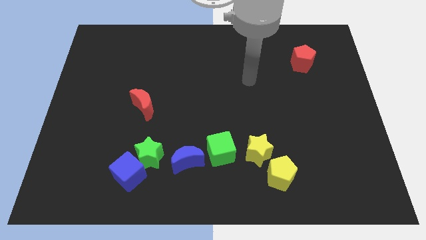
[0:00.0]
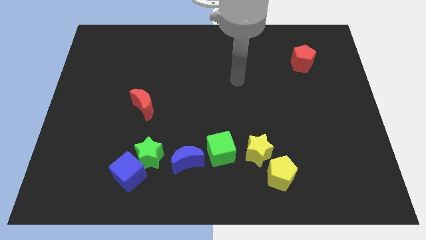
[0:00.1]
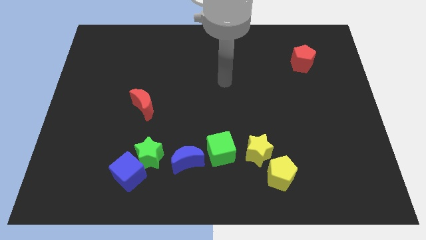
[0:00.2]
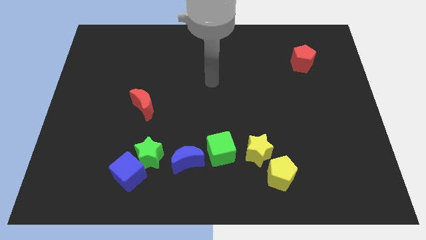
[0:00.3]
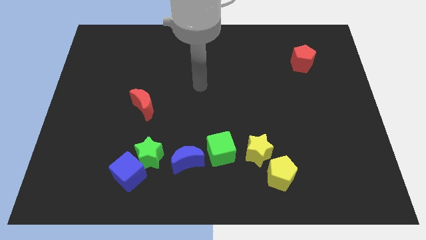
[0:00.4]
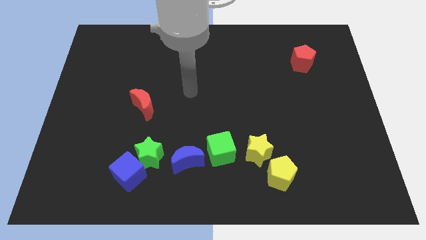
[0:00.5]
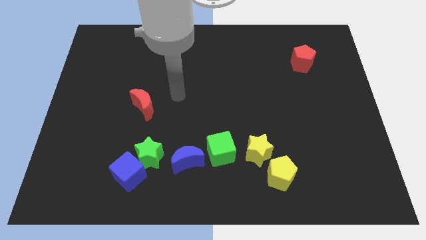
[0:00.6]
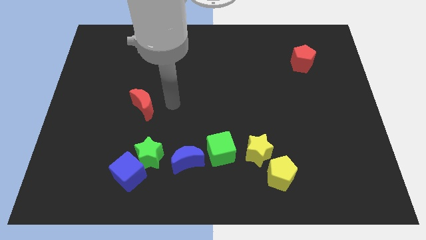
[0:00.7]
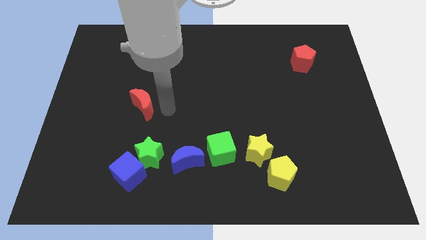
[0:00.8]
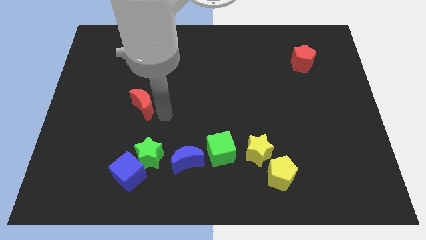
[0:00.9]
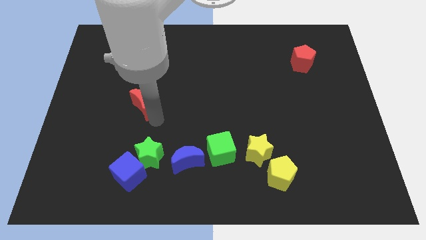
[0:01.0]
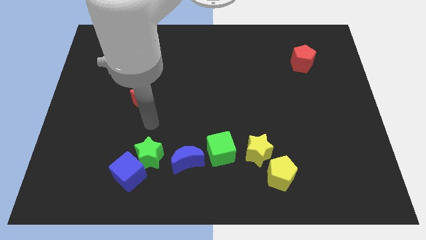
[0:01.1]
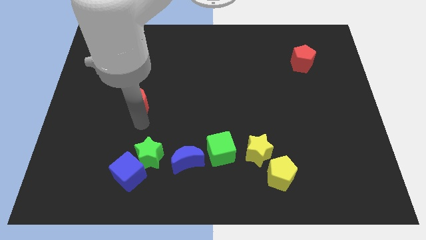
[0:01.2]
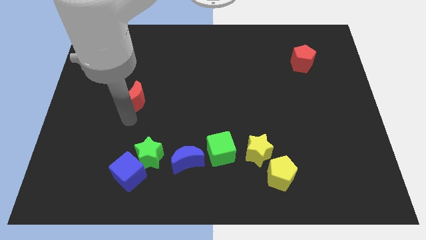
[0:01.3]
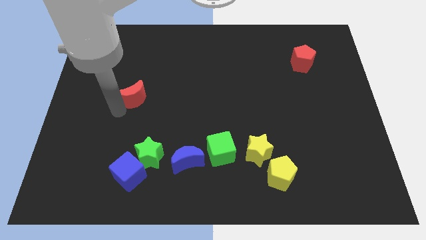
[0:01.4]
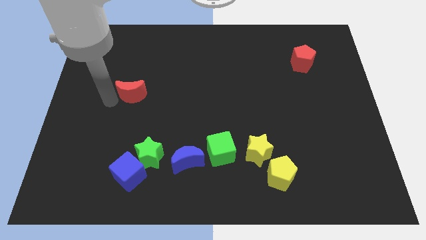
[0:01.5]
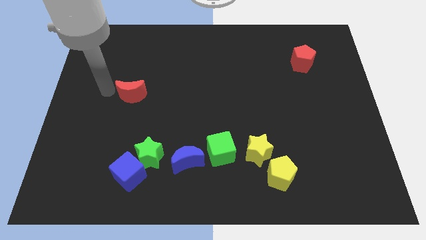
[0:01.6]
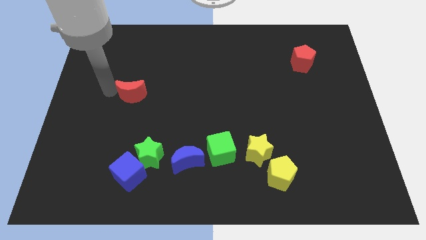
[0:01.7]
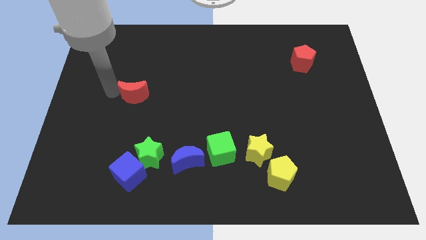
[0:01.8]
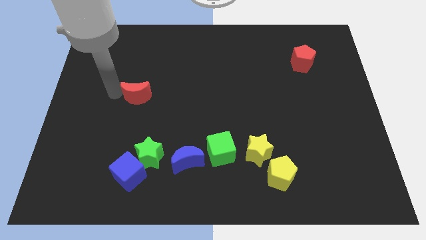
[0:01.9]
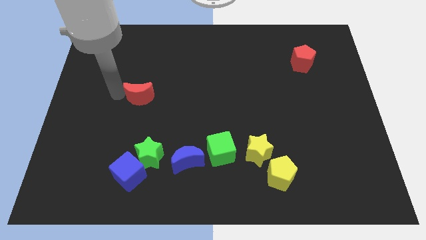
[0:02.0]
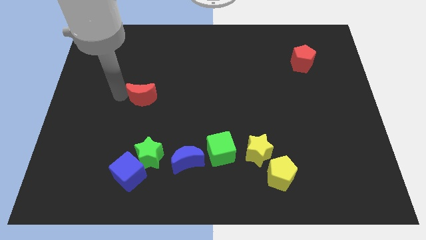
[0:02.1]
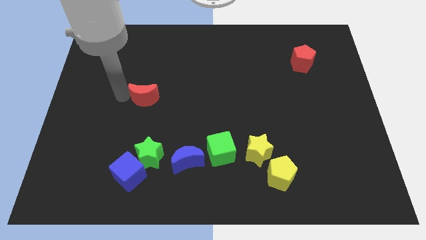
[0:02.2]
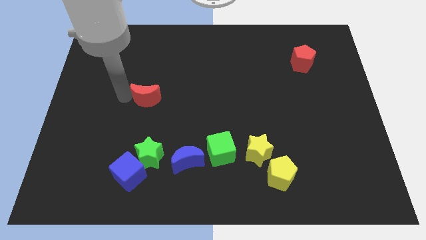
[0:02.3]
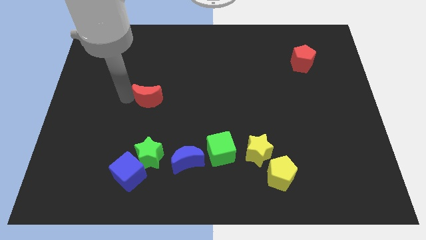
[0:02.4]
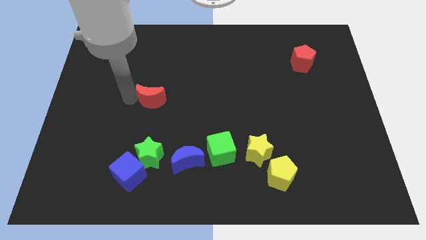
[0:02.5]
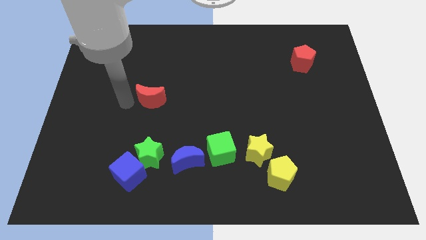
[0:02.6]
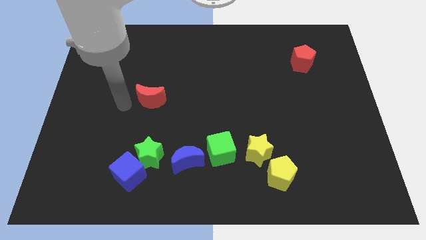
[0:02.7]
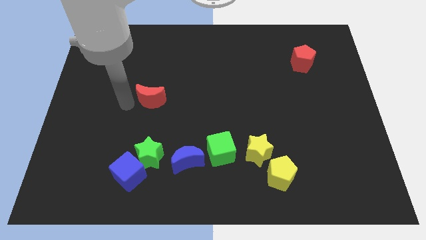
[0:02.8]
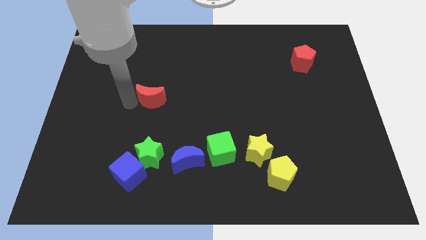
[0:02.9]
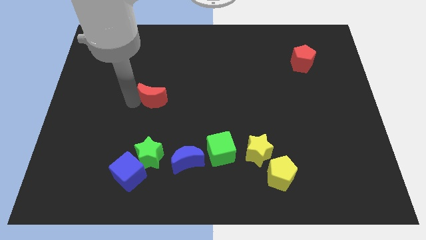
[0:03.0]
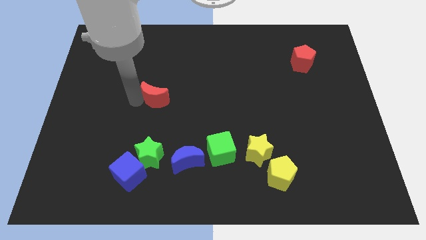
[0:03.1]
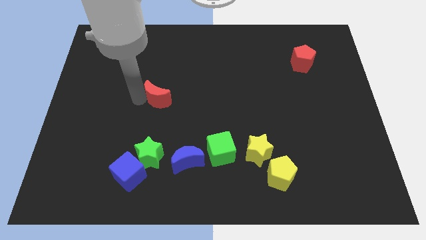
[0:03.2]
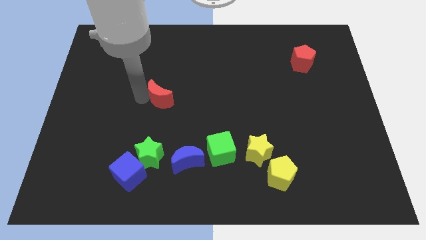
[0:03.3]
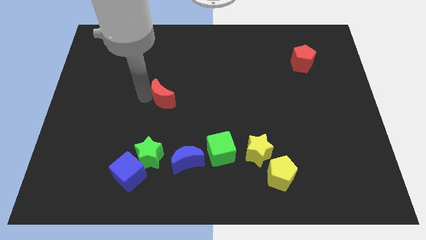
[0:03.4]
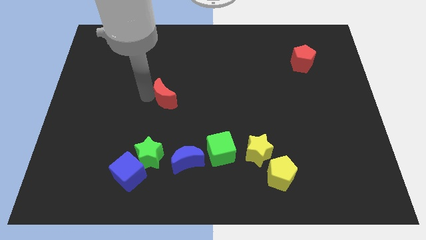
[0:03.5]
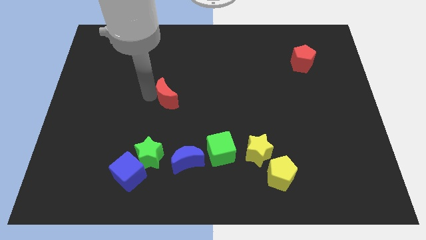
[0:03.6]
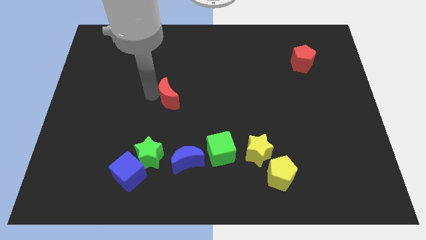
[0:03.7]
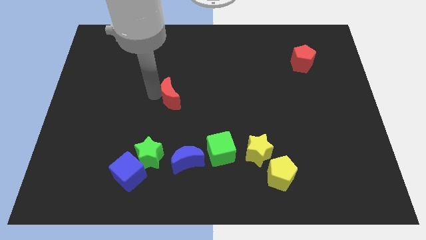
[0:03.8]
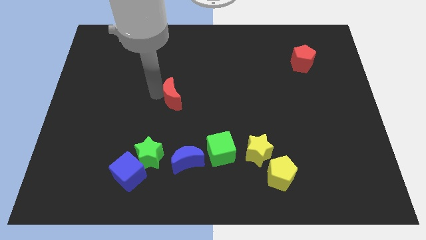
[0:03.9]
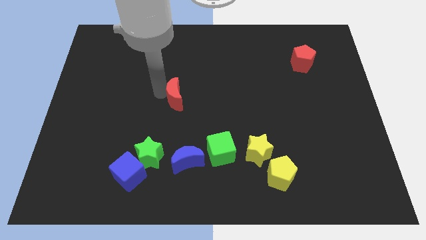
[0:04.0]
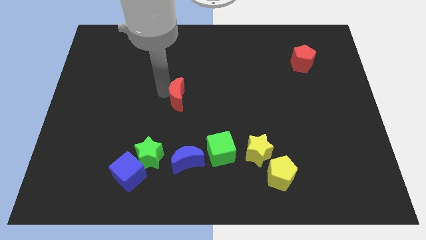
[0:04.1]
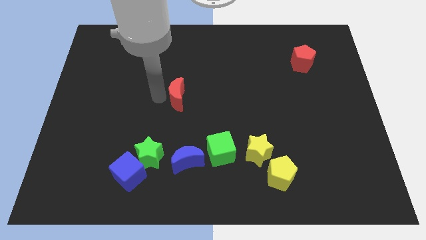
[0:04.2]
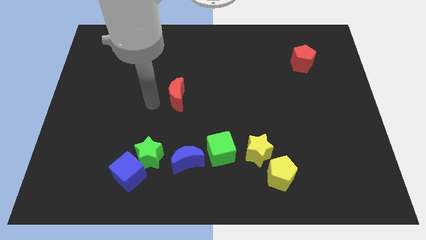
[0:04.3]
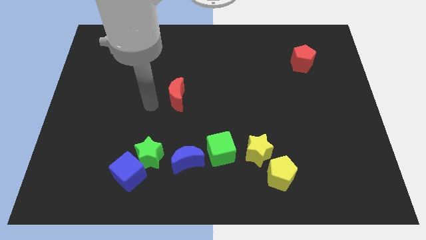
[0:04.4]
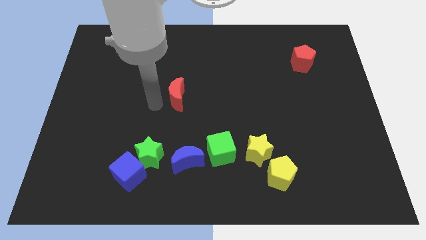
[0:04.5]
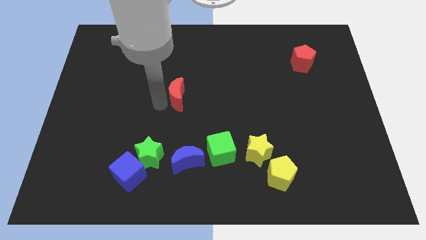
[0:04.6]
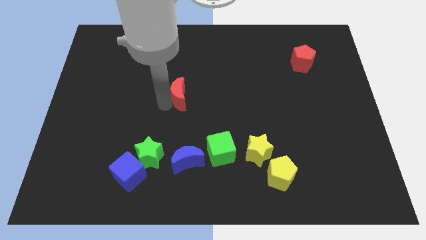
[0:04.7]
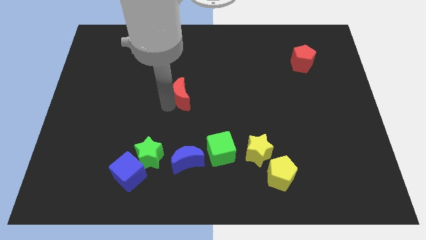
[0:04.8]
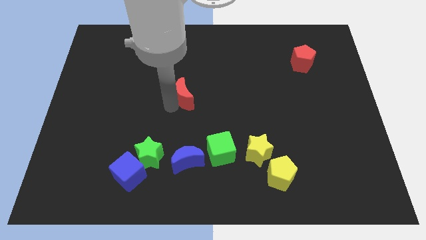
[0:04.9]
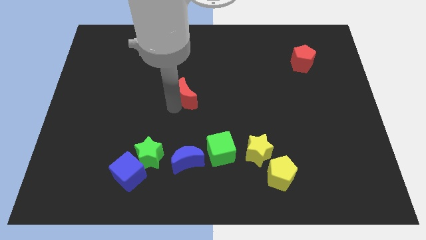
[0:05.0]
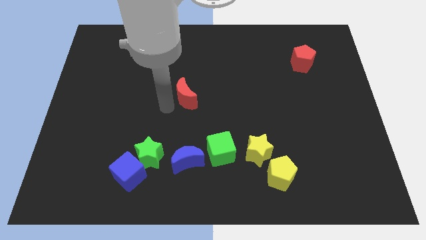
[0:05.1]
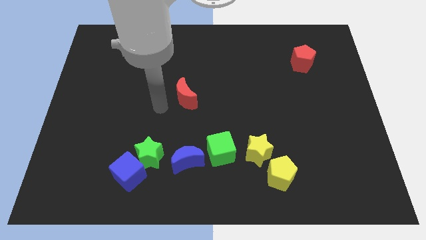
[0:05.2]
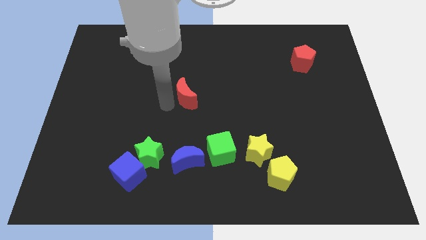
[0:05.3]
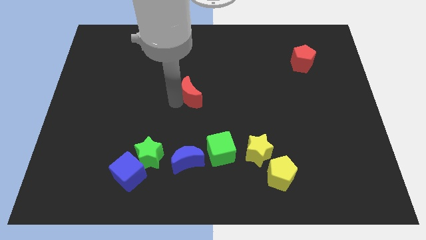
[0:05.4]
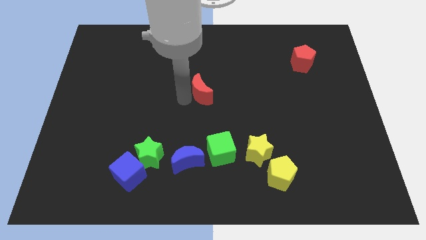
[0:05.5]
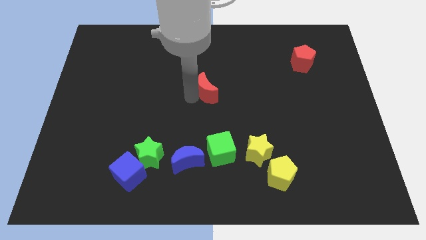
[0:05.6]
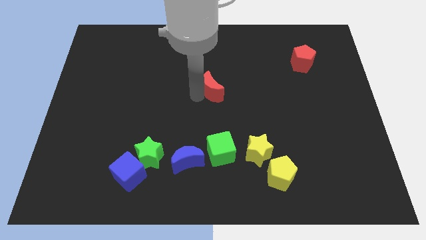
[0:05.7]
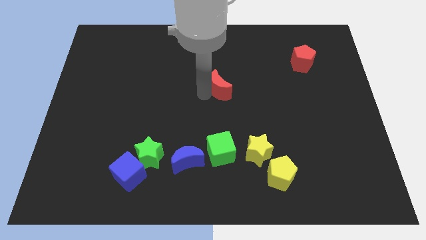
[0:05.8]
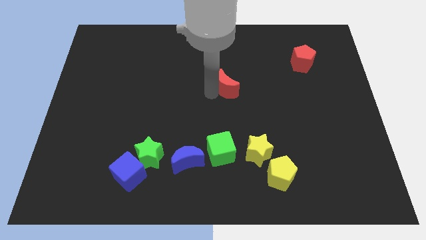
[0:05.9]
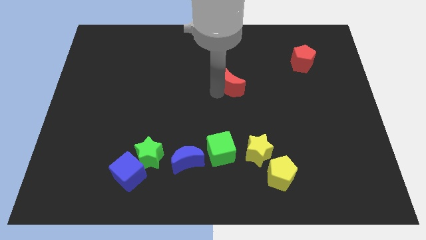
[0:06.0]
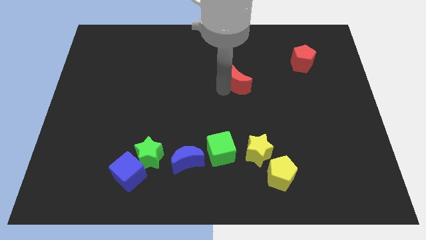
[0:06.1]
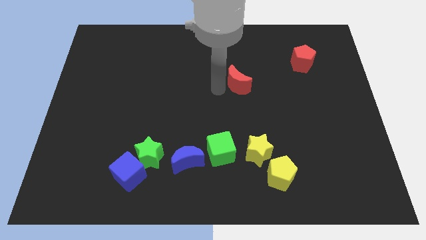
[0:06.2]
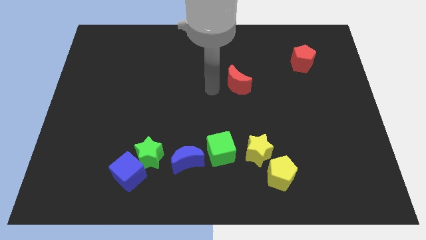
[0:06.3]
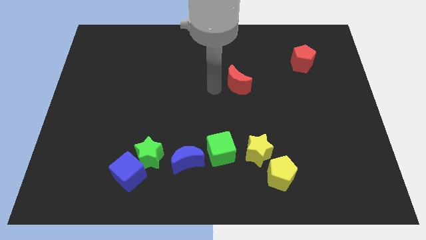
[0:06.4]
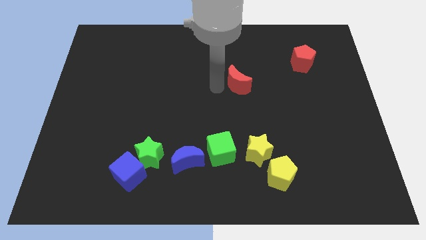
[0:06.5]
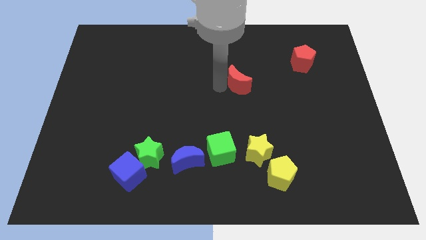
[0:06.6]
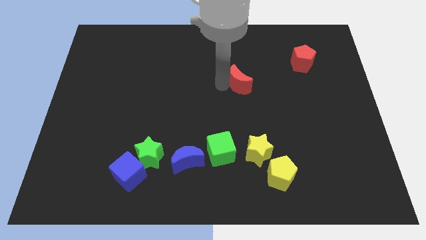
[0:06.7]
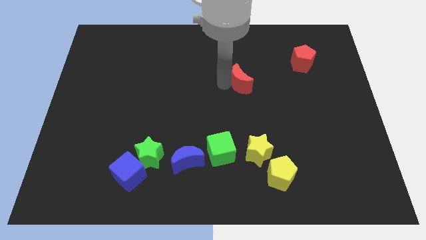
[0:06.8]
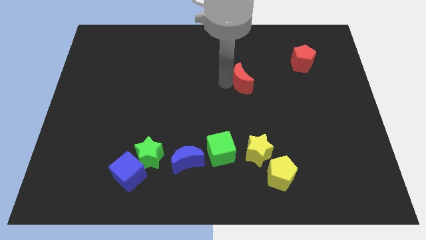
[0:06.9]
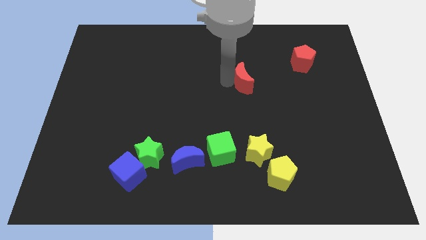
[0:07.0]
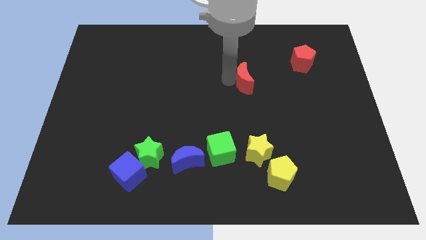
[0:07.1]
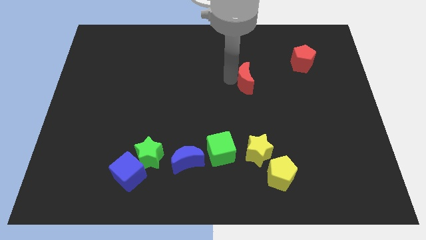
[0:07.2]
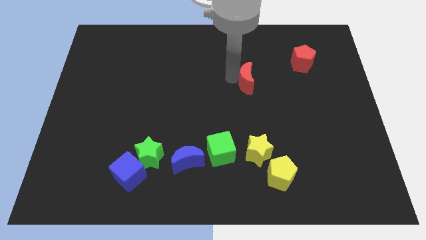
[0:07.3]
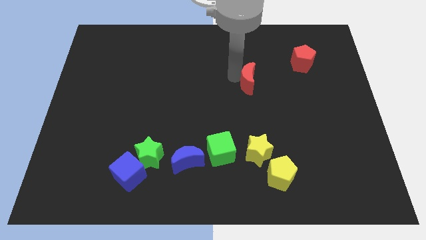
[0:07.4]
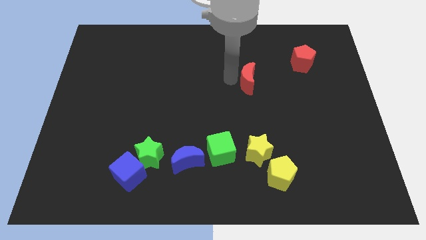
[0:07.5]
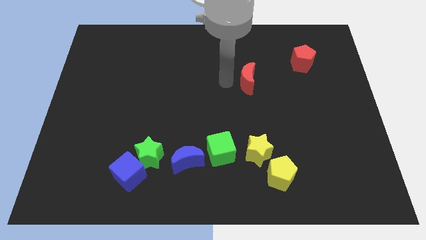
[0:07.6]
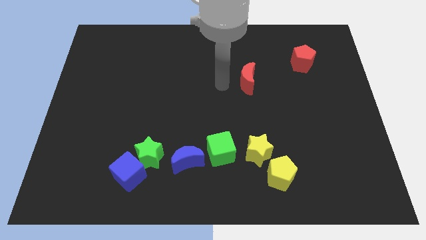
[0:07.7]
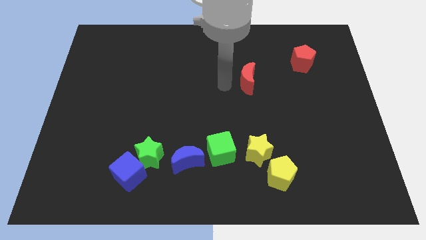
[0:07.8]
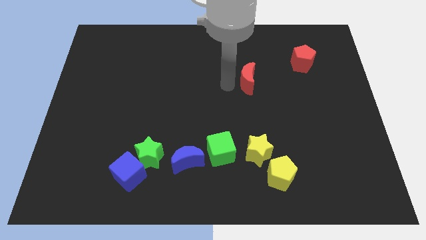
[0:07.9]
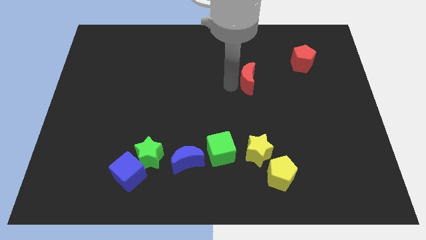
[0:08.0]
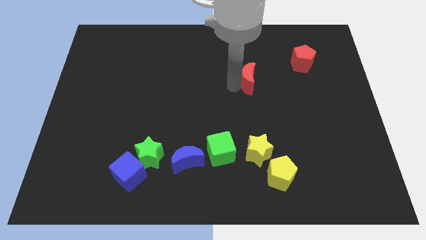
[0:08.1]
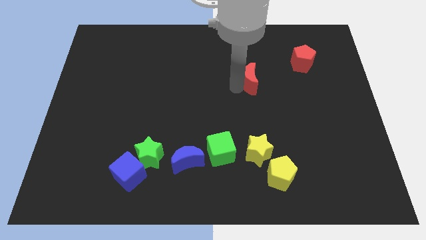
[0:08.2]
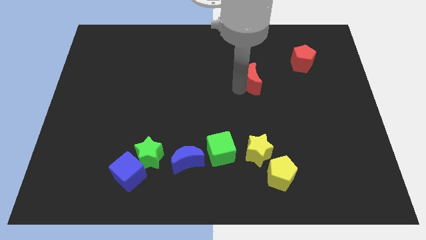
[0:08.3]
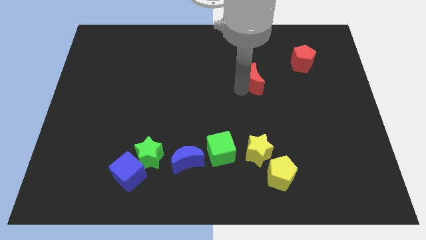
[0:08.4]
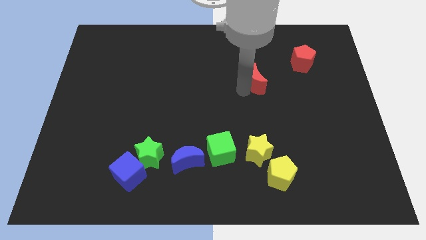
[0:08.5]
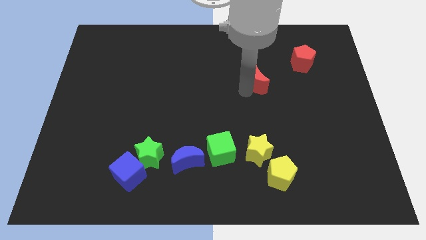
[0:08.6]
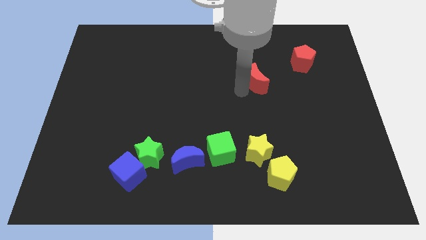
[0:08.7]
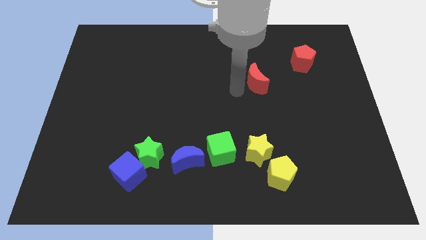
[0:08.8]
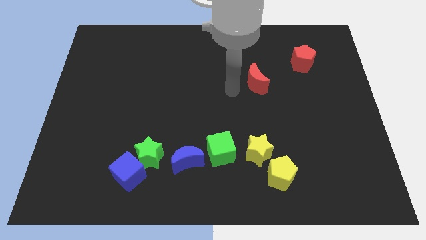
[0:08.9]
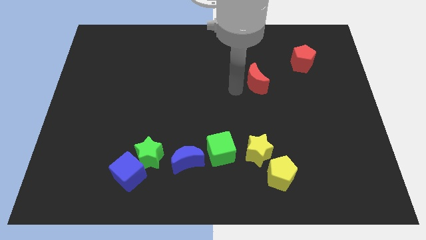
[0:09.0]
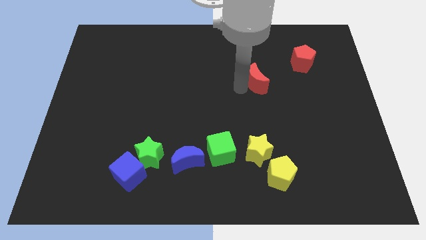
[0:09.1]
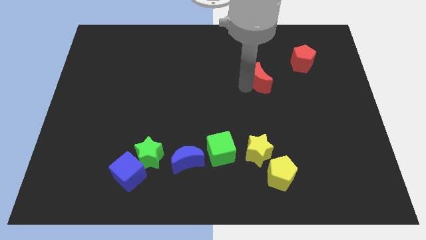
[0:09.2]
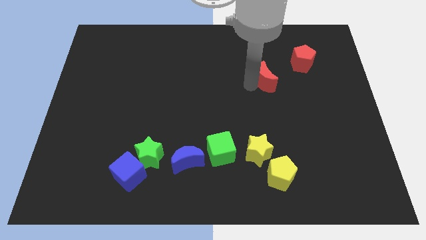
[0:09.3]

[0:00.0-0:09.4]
move the red moon to the bottom left side of the red pentagon
